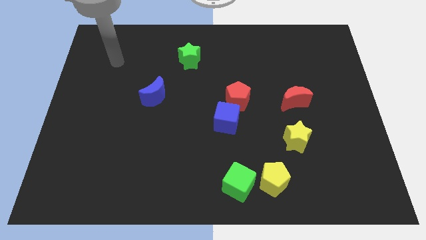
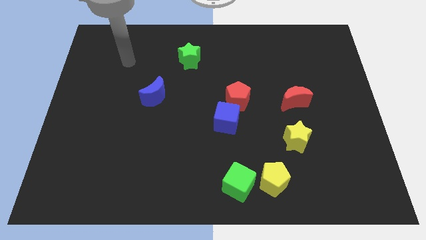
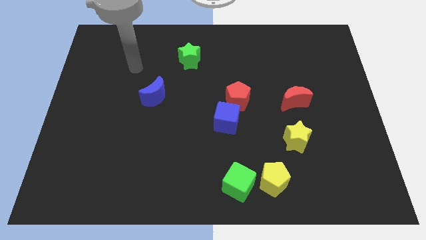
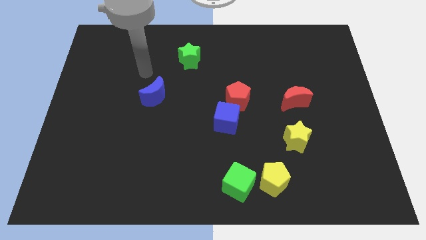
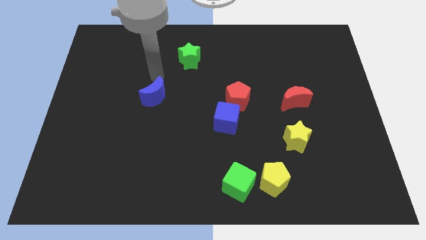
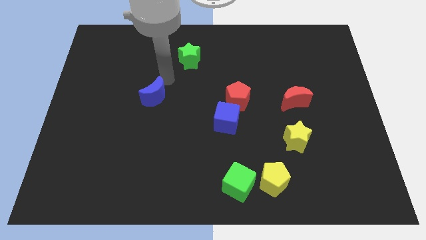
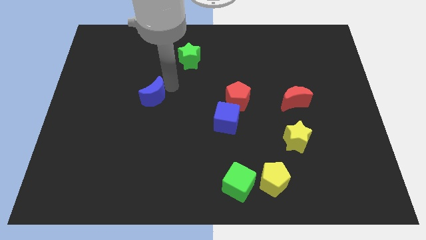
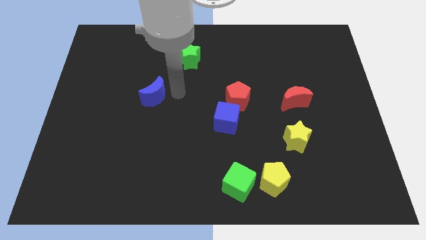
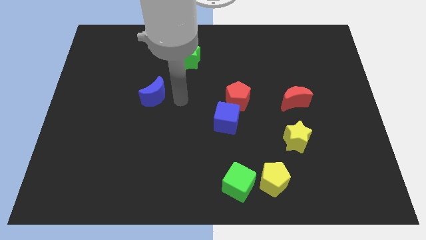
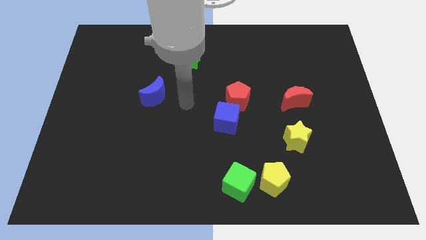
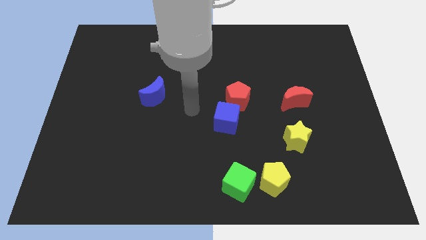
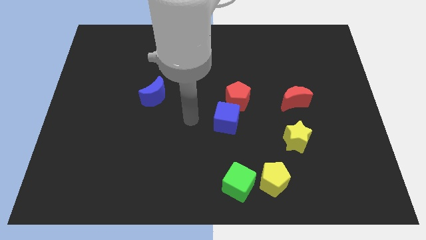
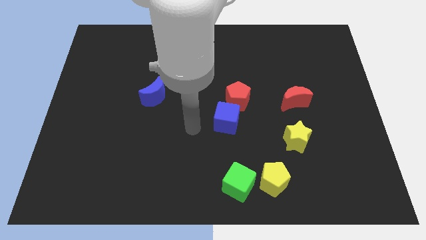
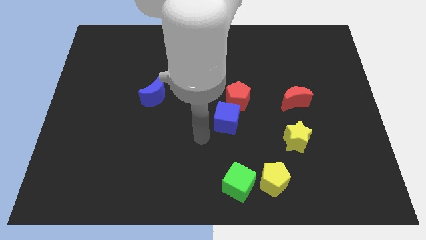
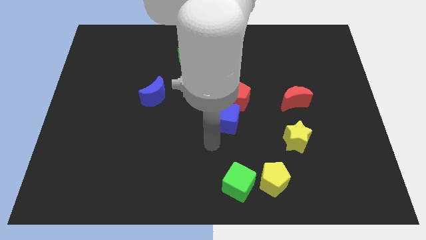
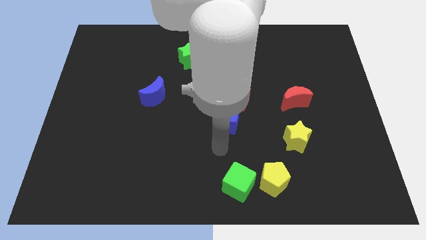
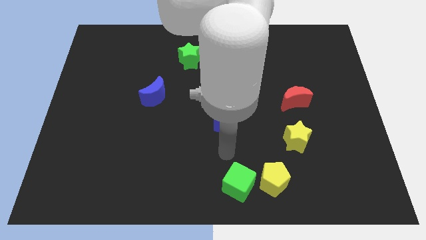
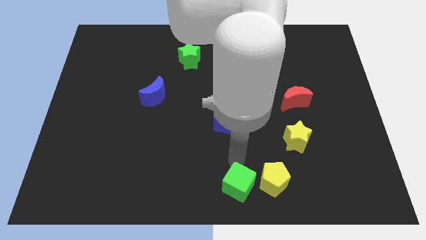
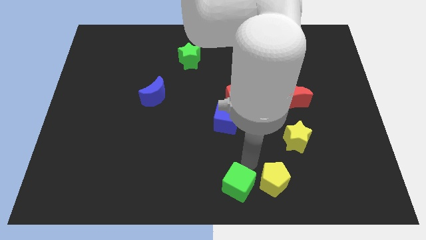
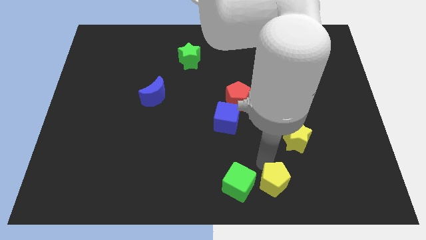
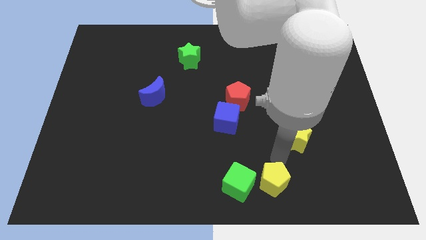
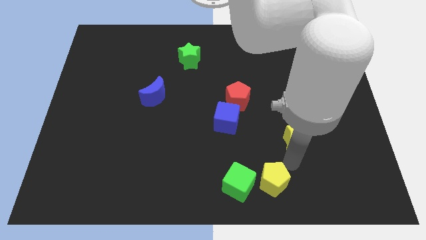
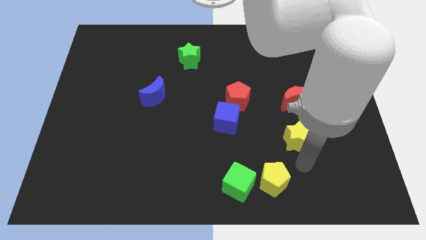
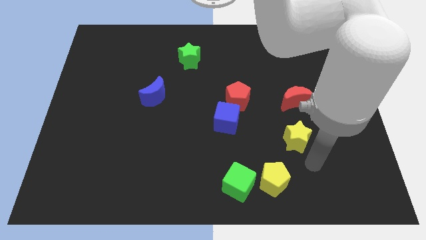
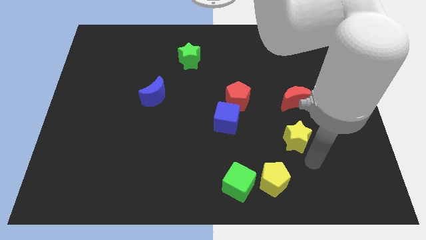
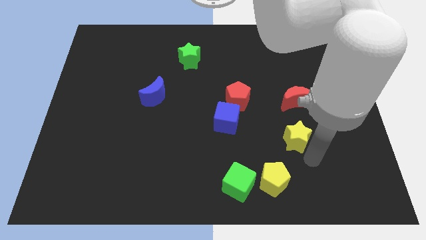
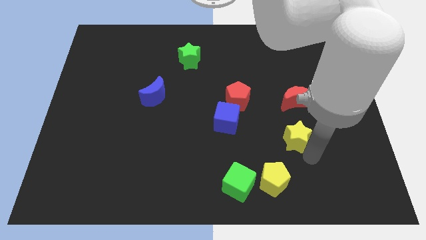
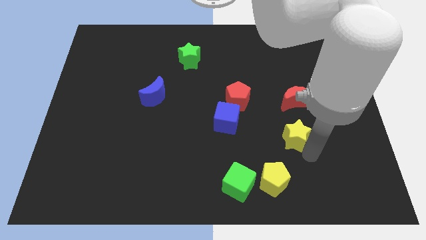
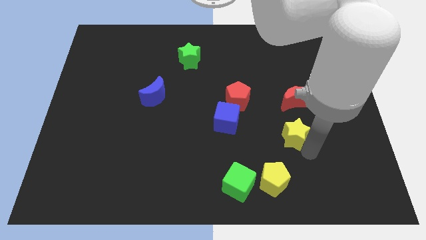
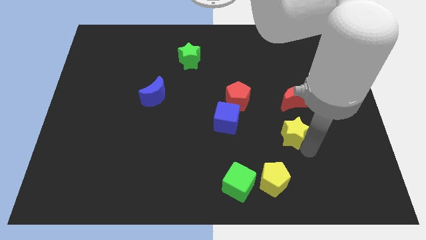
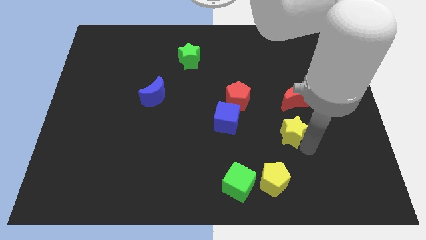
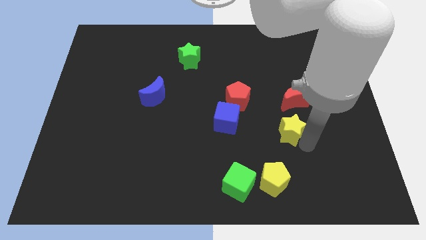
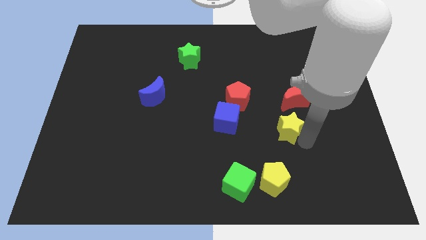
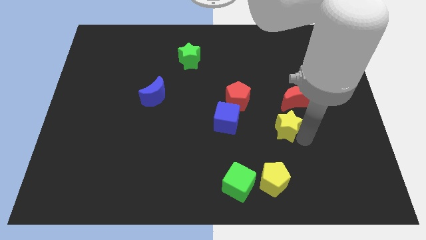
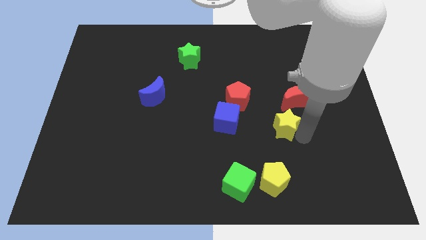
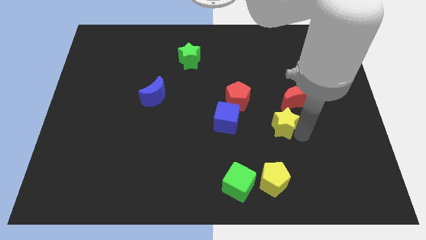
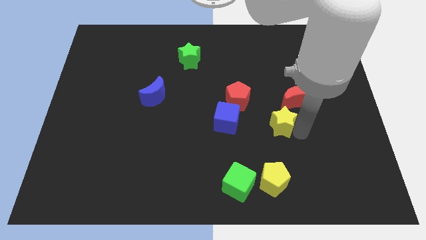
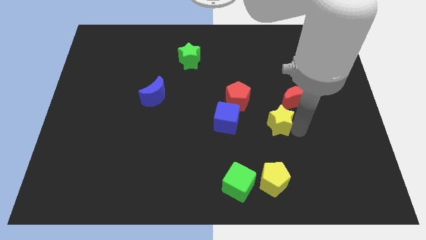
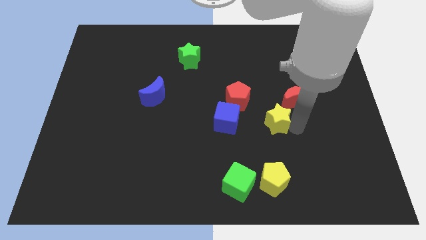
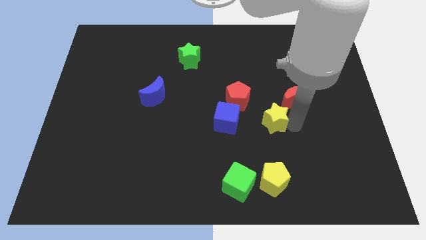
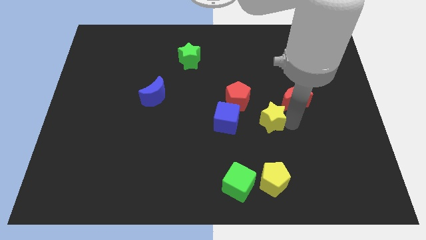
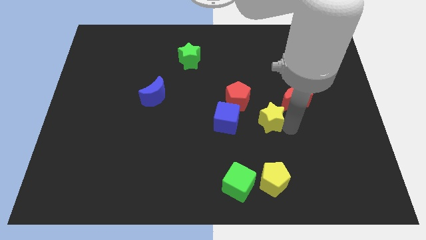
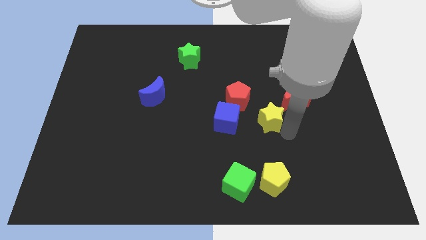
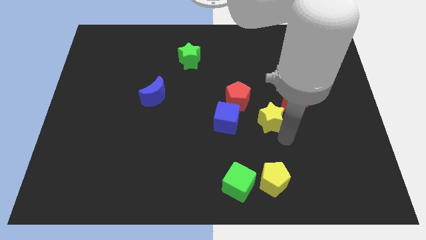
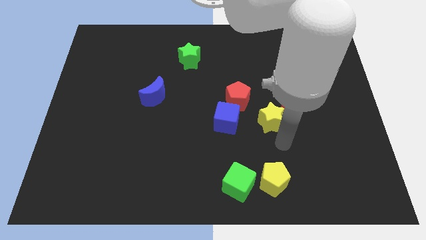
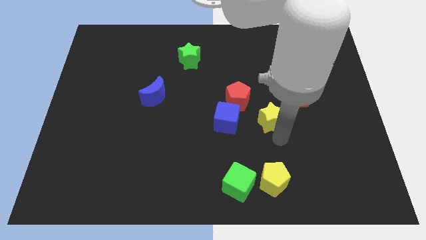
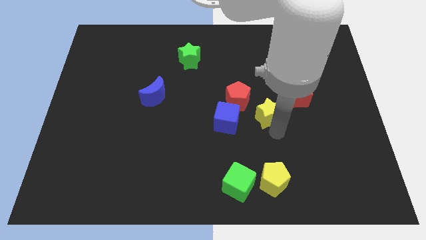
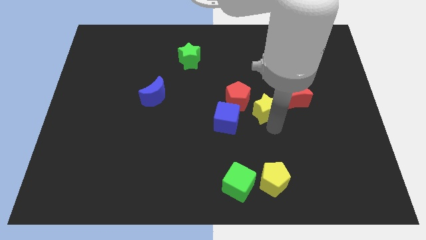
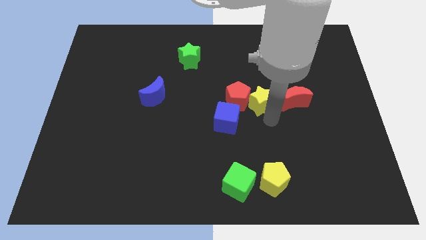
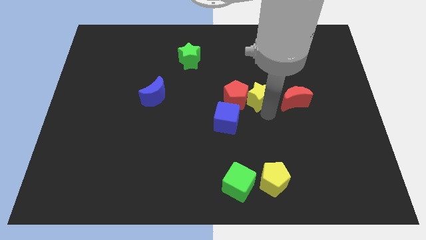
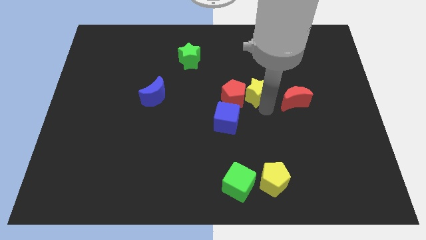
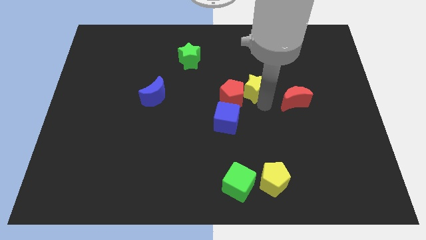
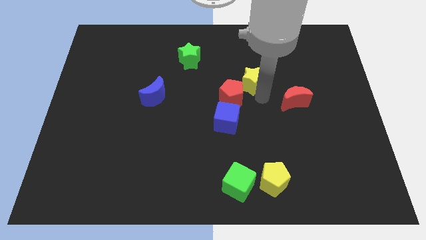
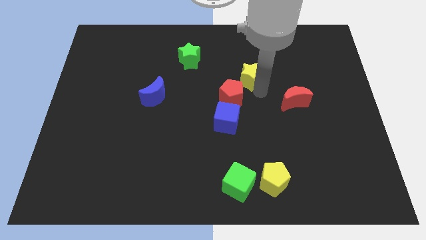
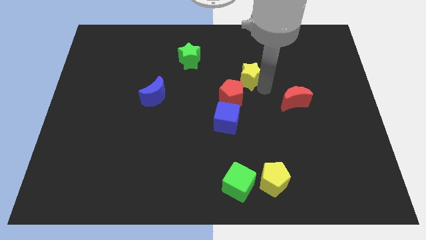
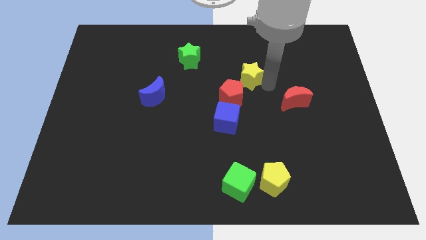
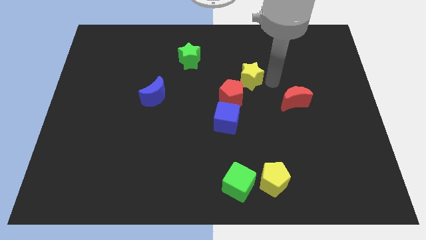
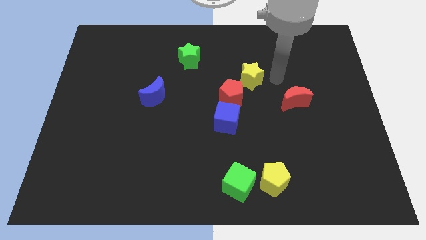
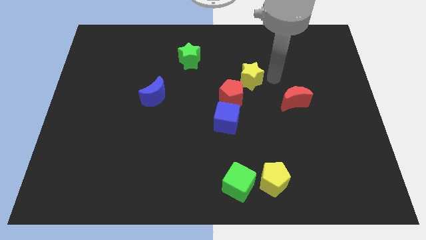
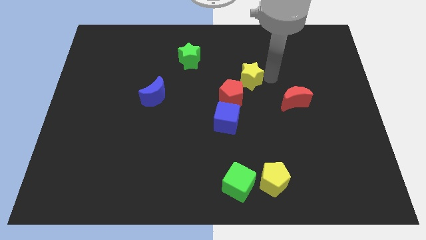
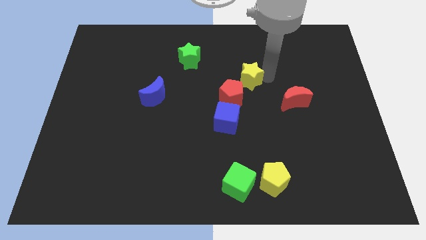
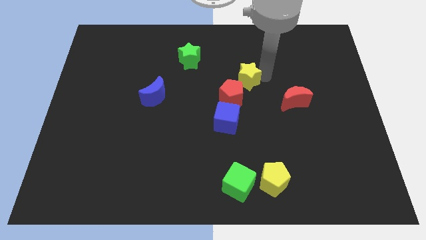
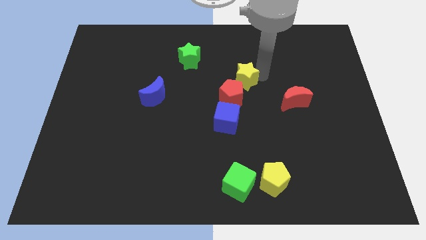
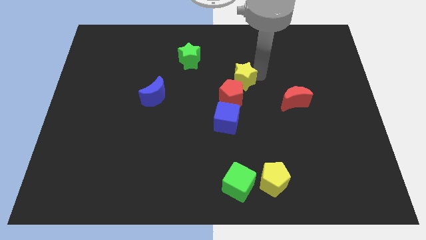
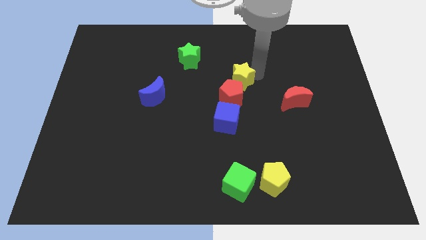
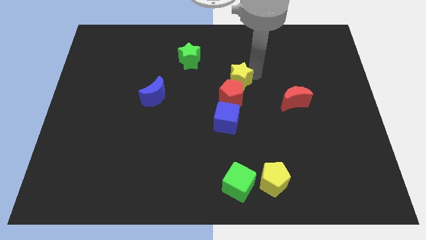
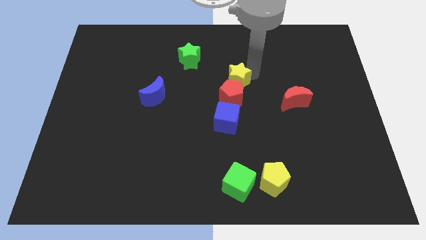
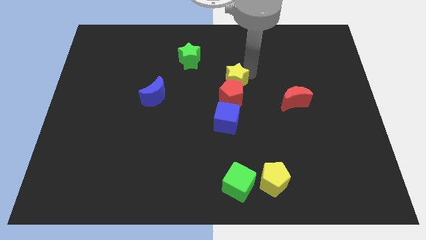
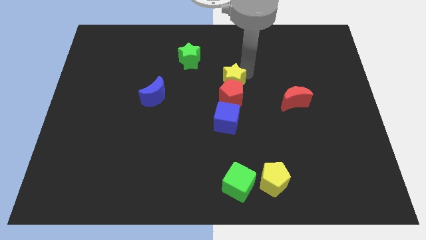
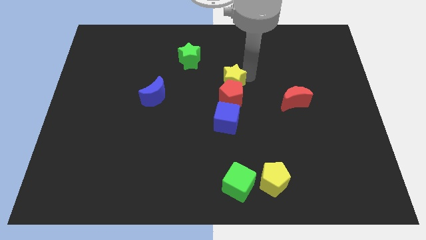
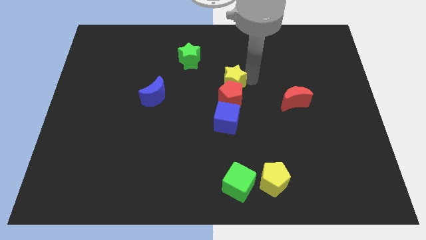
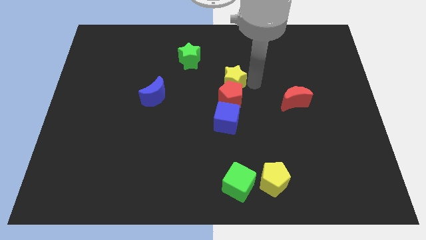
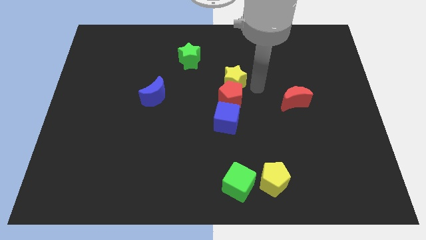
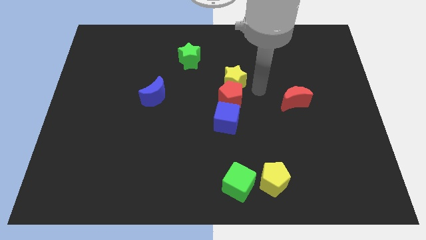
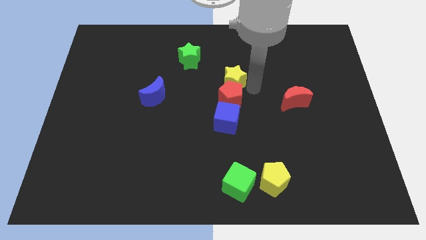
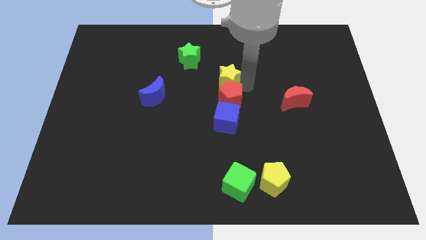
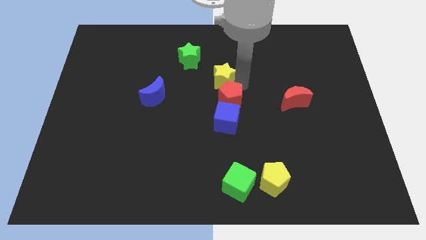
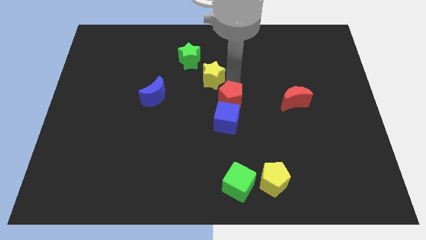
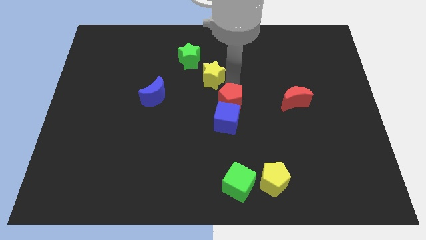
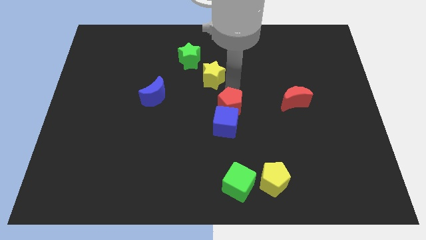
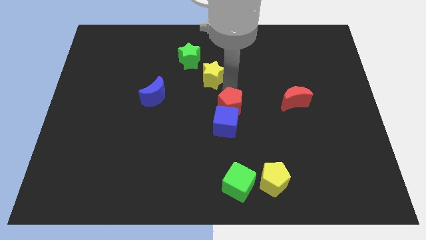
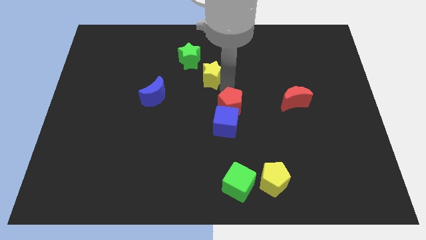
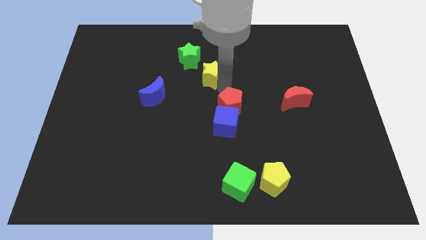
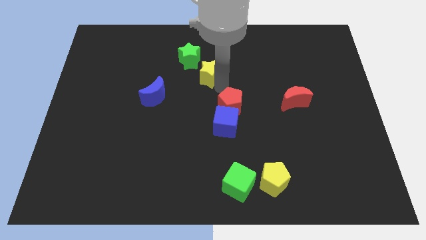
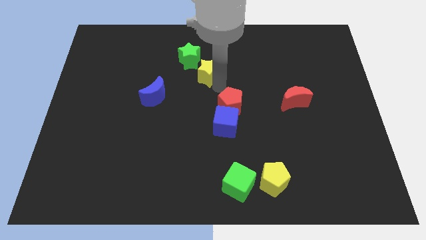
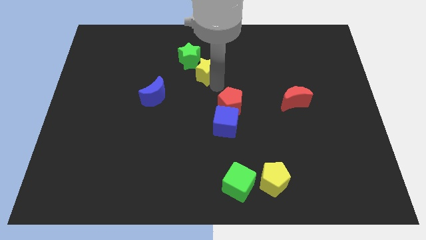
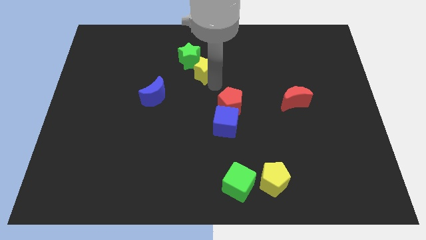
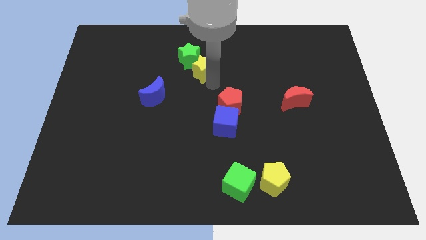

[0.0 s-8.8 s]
slide the yellow star next to the green star
